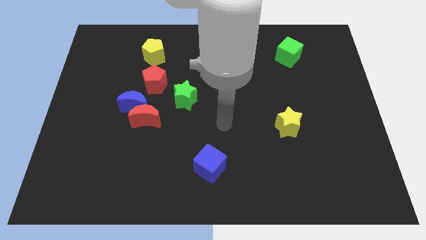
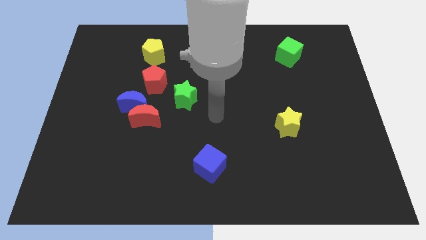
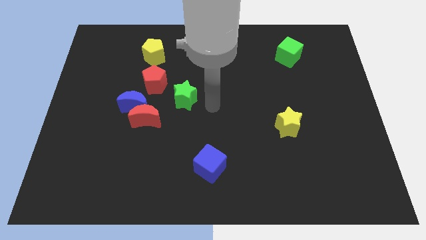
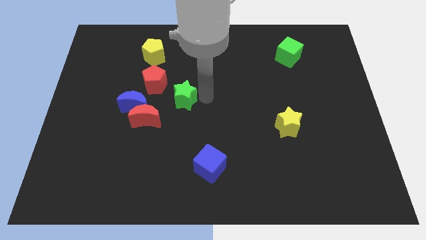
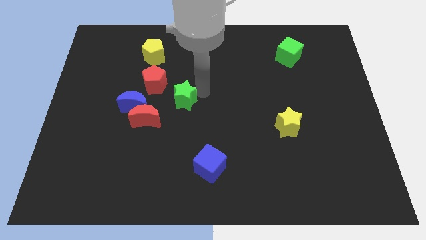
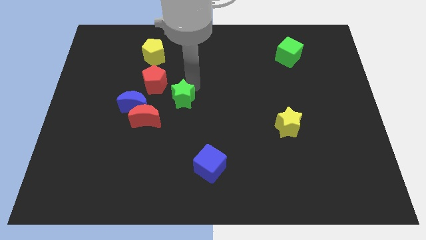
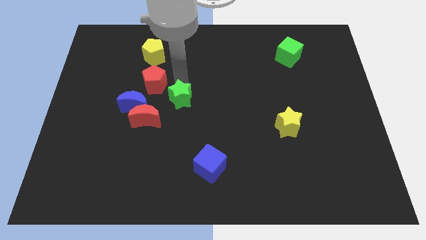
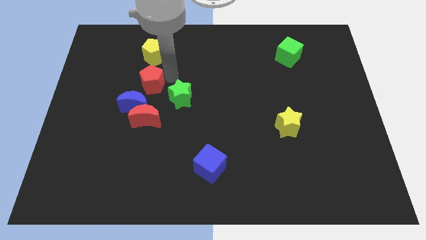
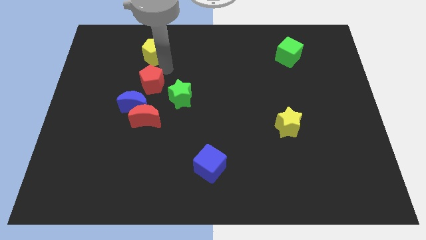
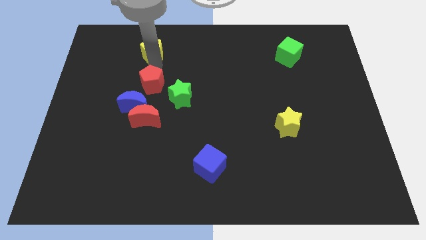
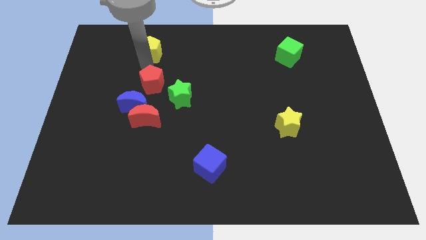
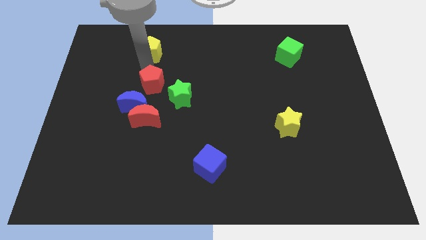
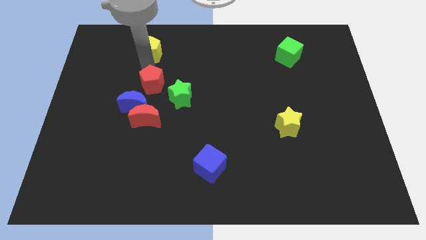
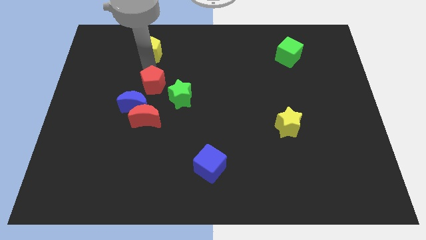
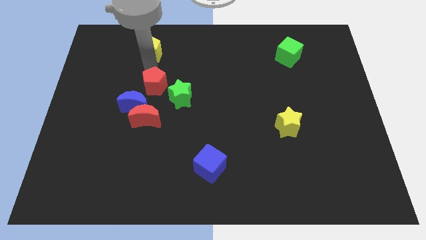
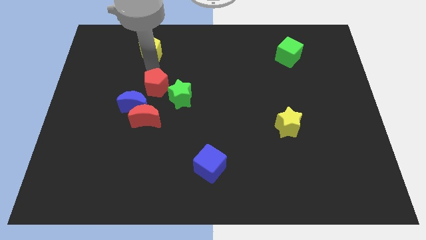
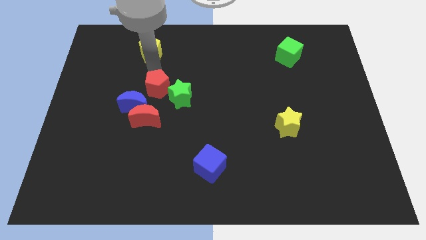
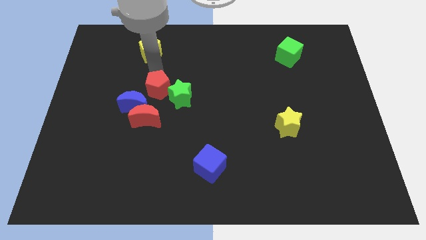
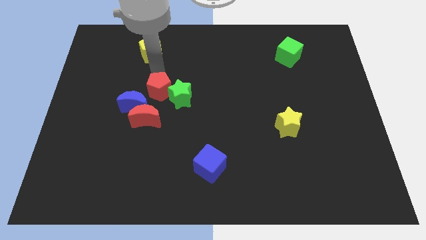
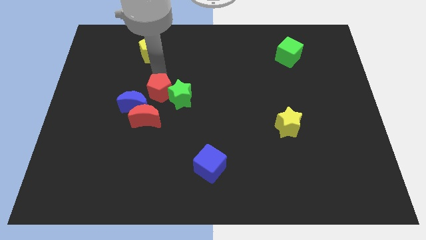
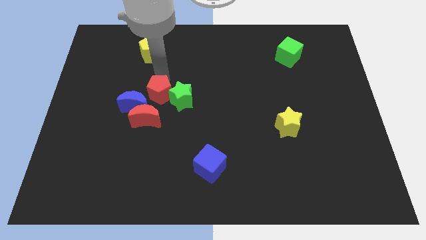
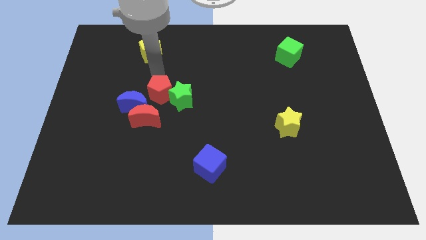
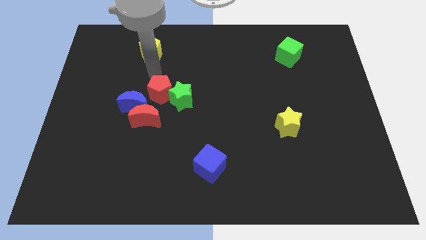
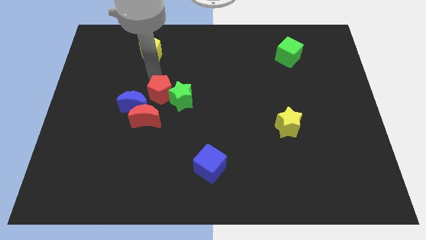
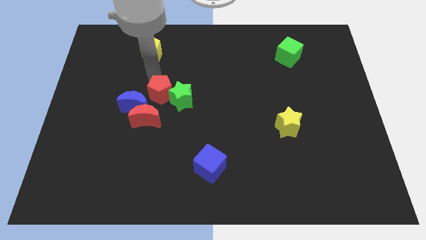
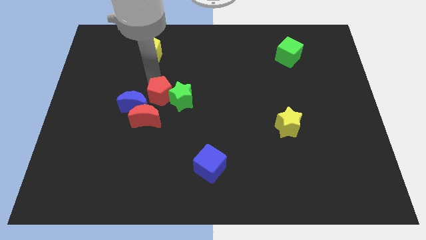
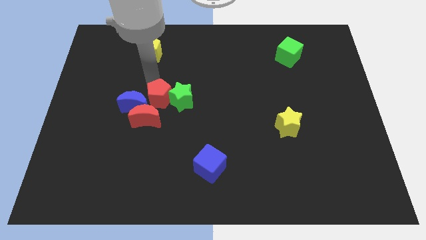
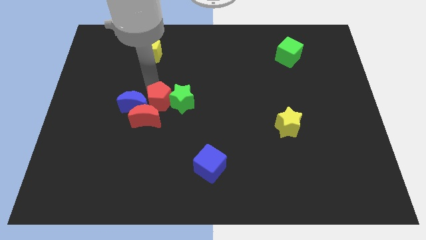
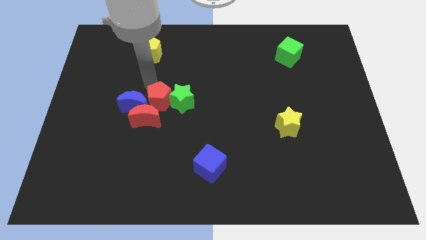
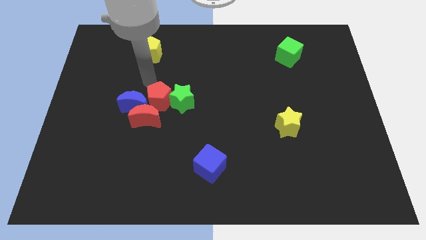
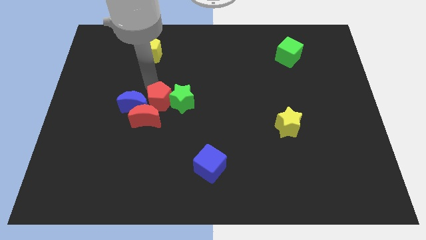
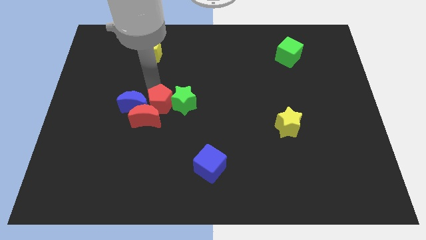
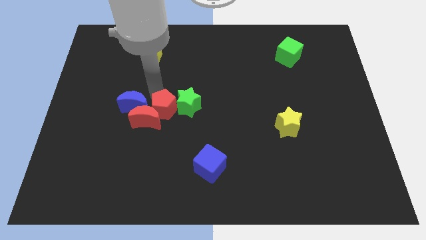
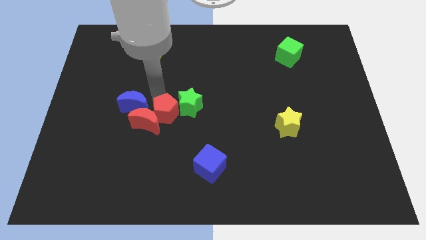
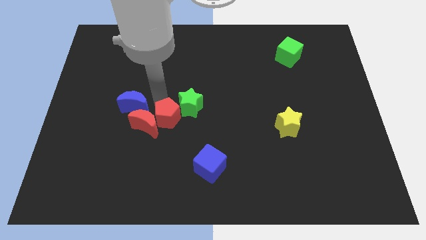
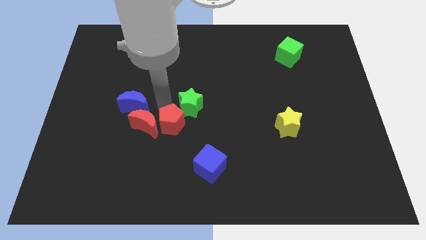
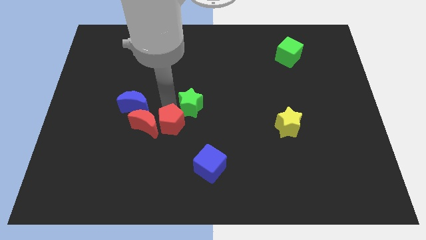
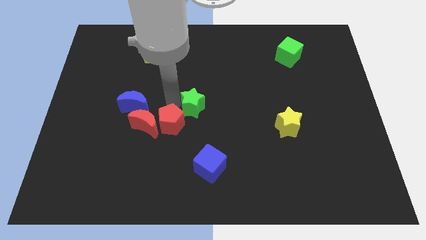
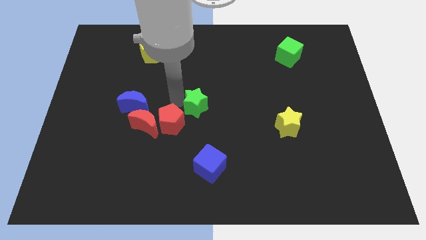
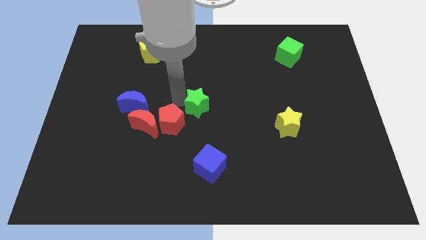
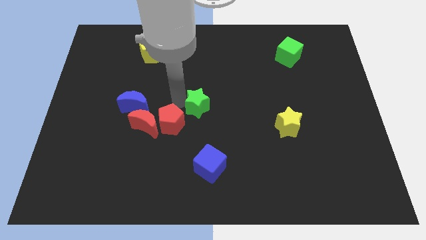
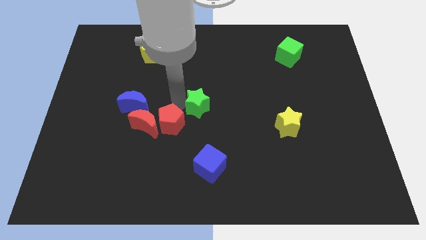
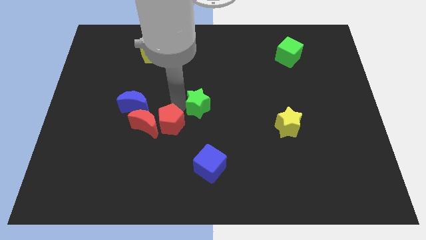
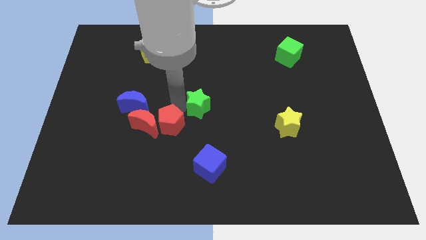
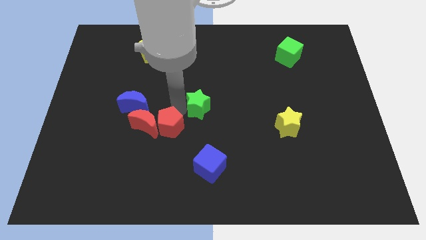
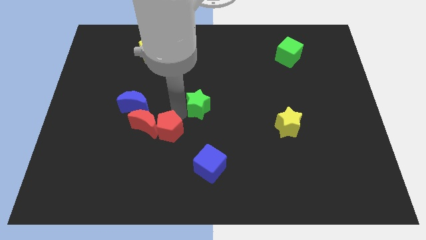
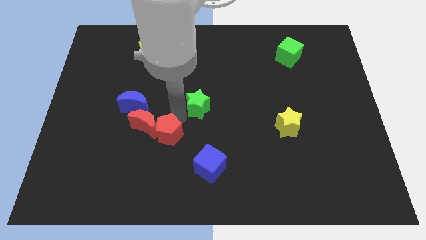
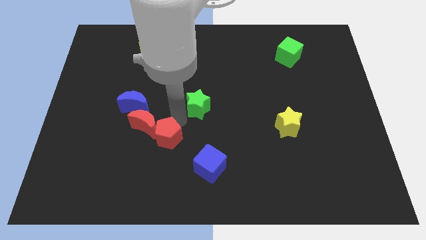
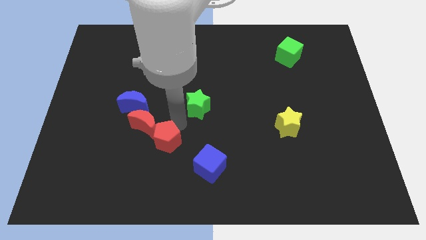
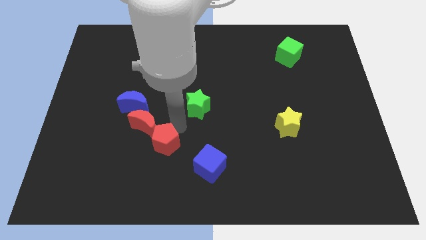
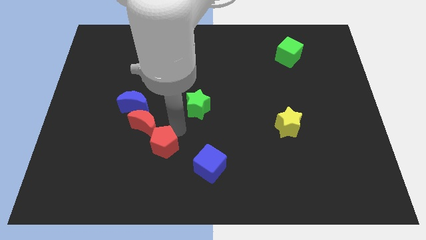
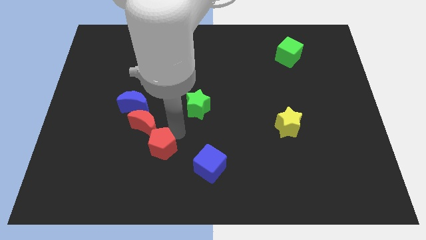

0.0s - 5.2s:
slide the red pentagon left of the blue cube
